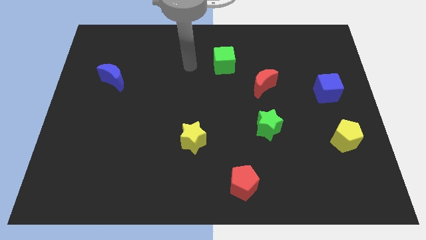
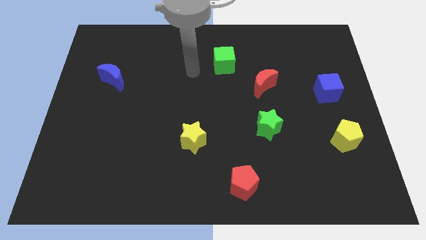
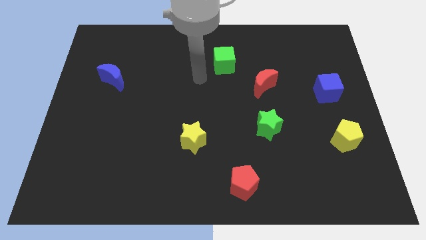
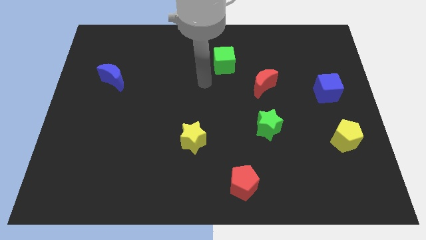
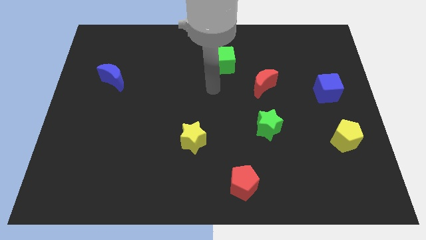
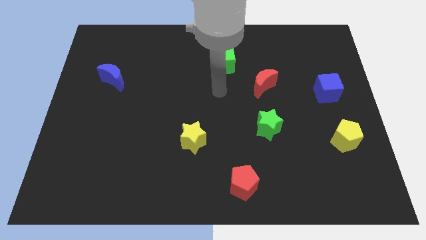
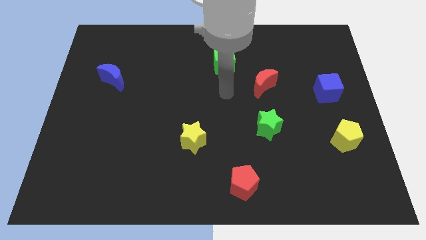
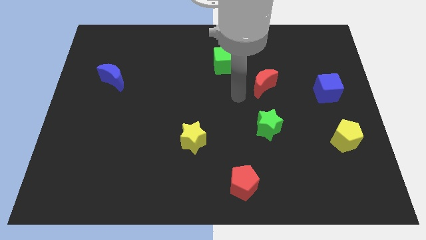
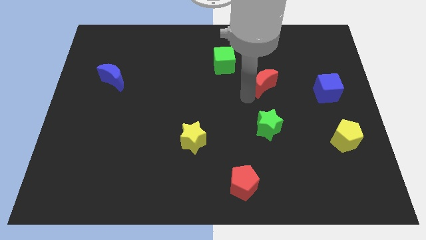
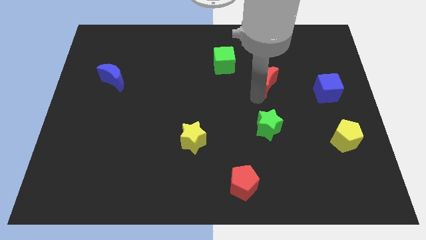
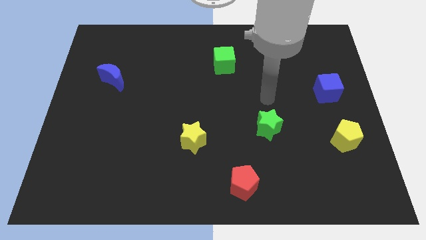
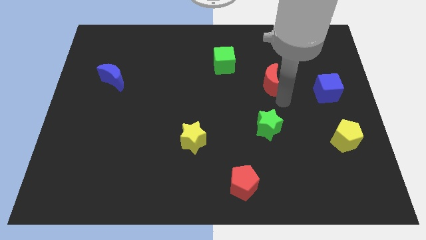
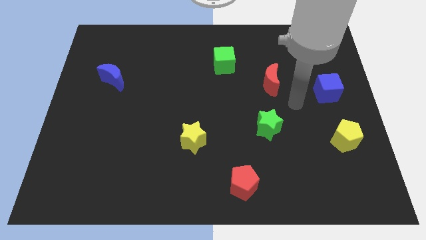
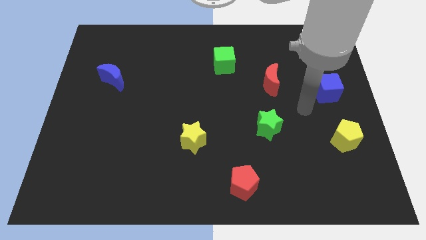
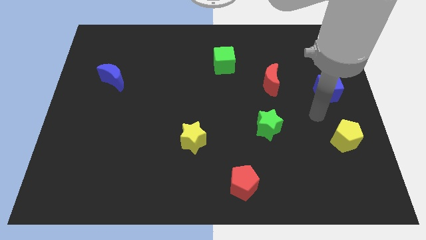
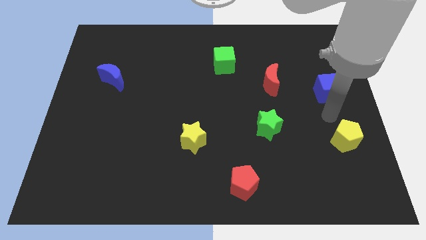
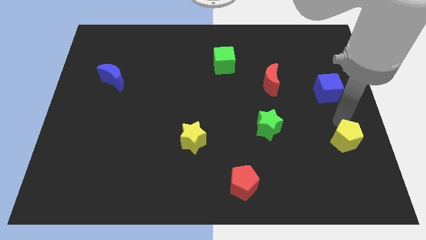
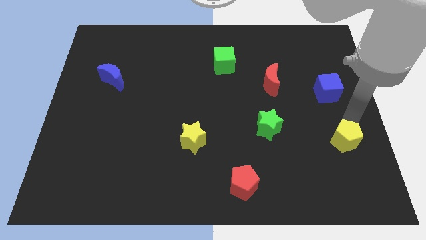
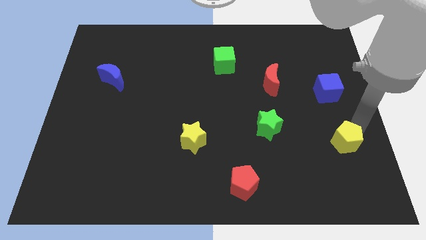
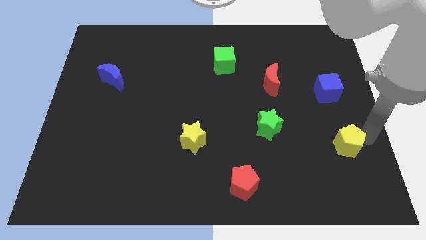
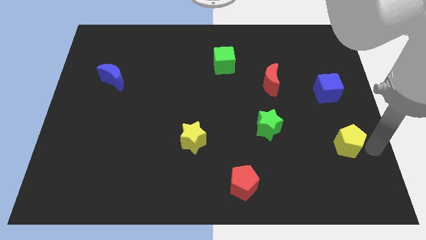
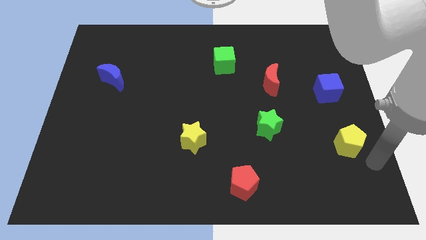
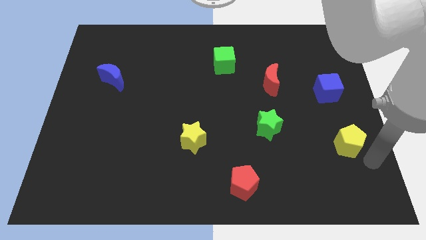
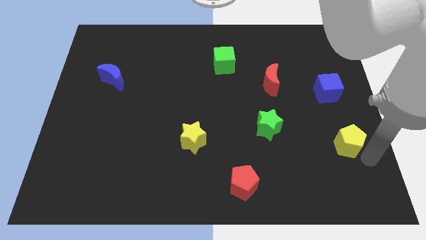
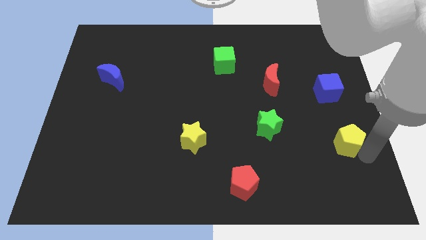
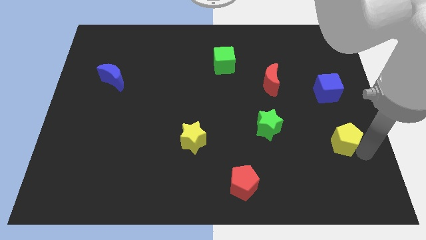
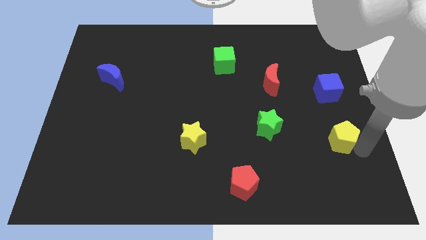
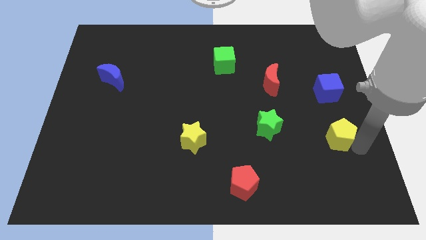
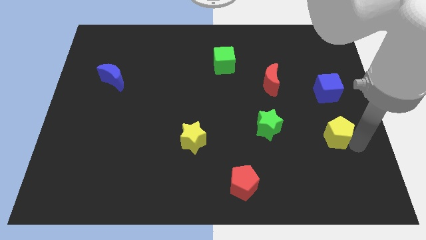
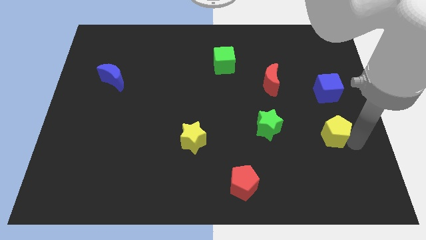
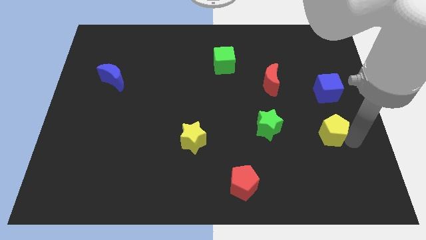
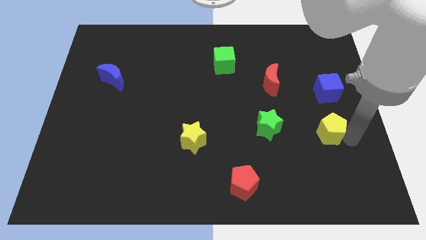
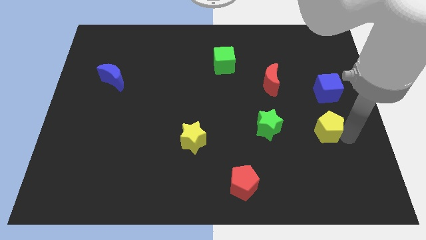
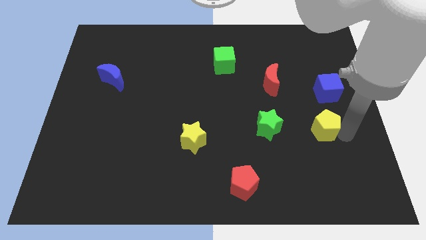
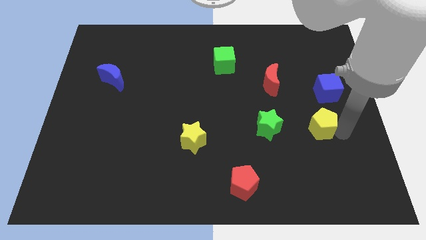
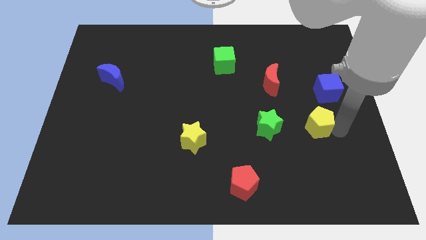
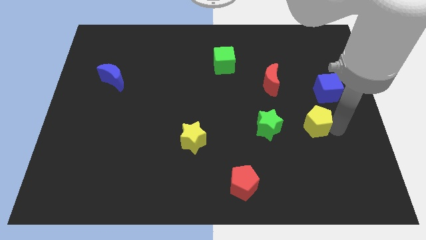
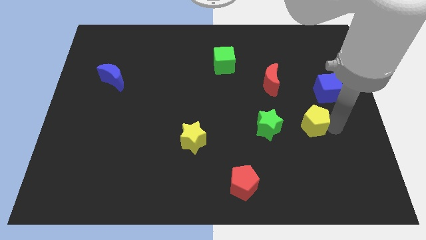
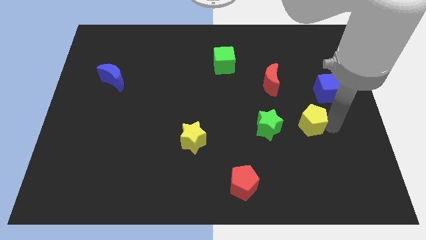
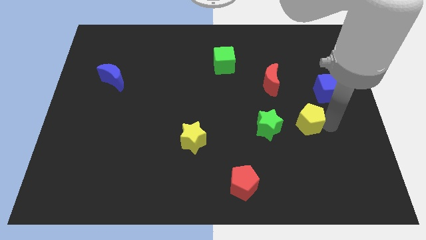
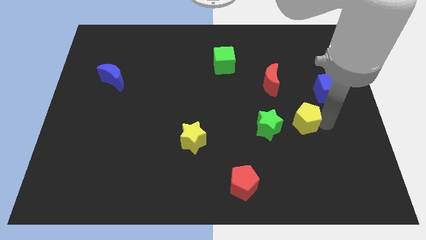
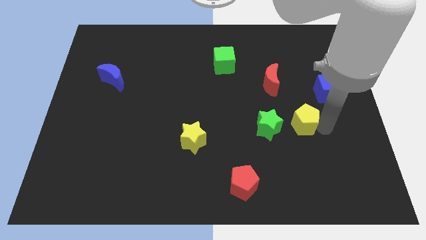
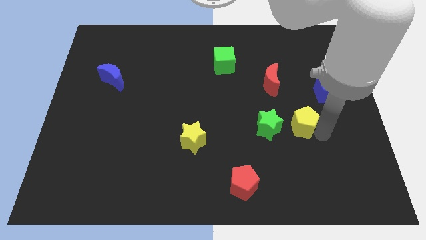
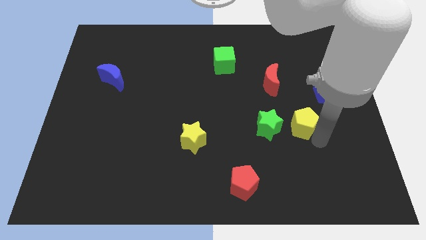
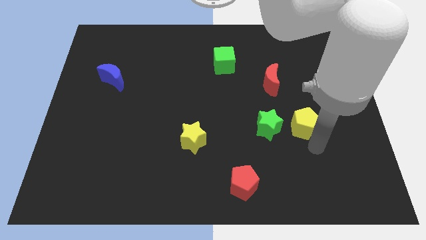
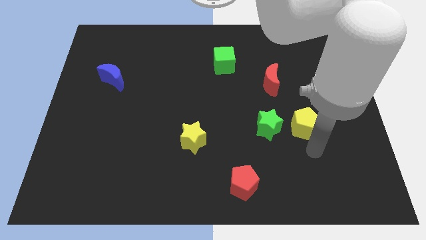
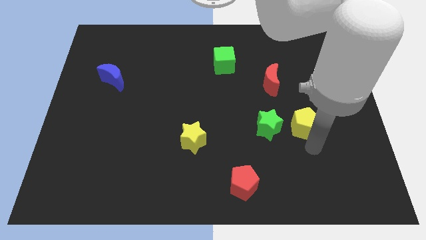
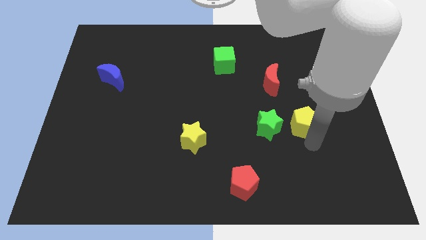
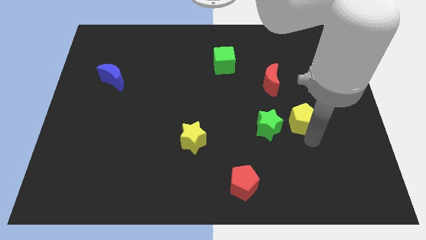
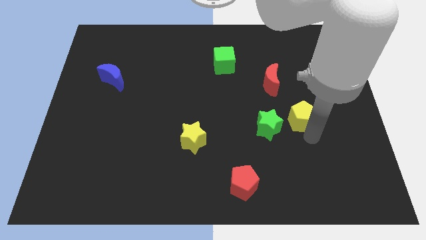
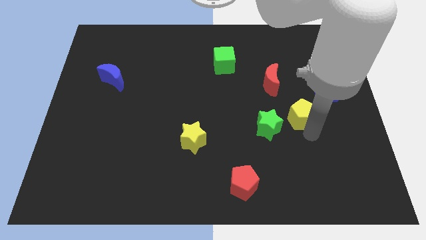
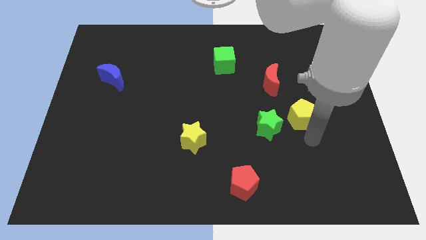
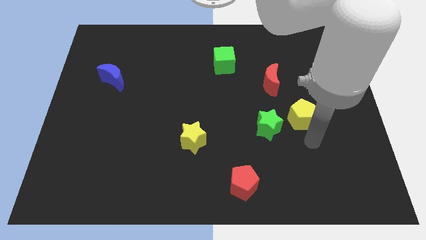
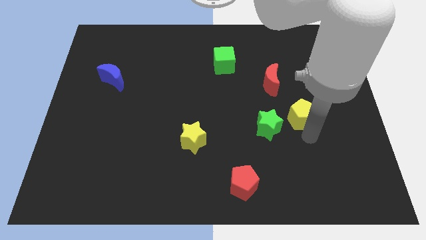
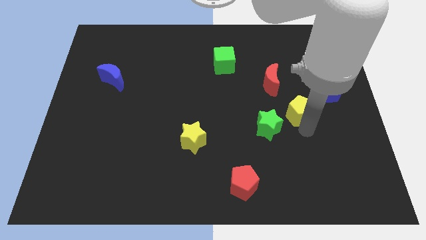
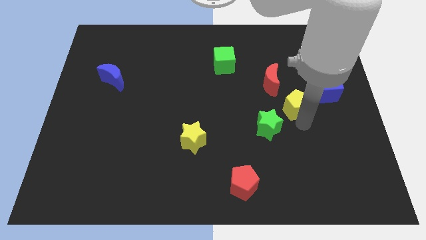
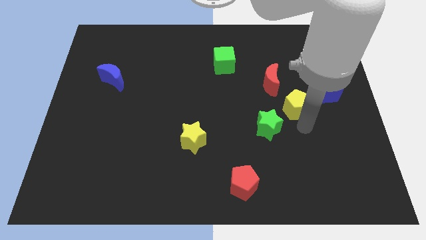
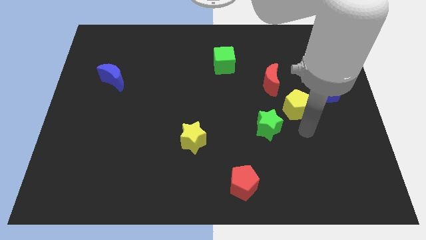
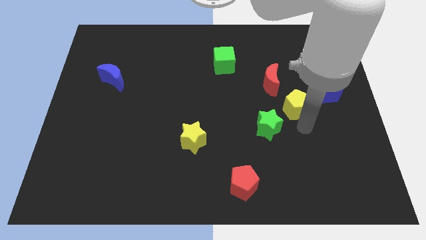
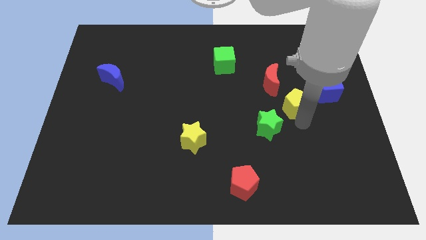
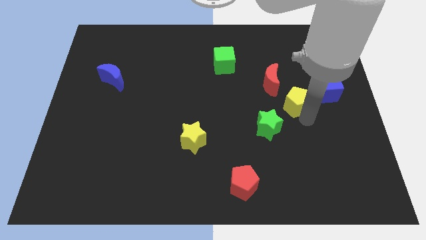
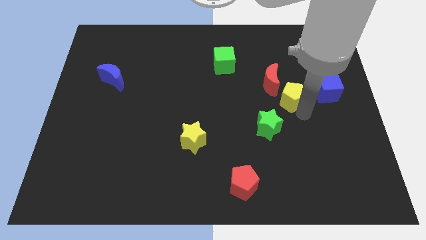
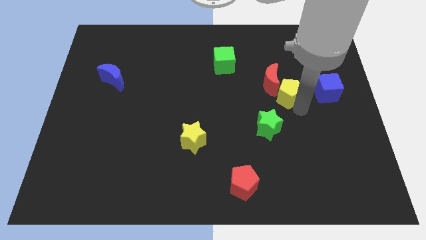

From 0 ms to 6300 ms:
put the yellow pentagon close to the red moon

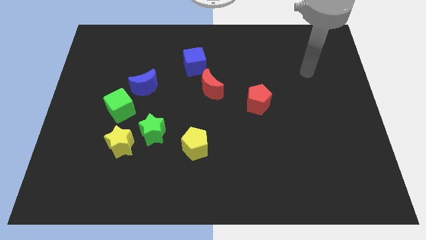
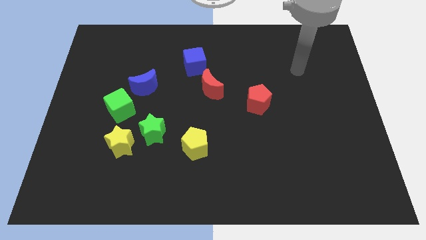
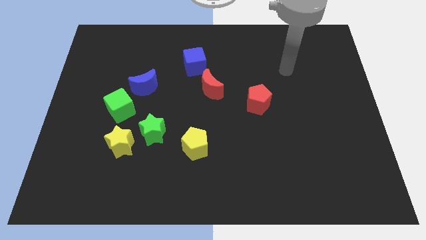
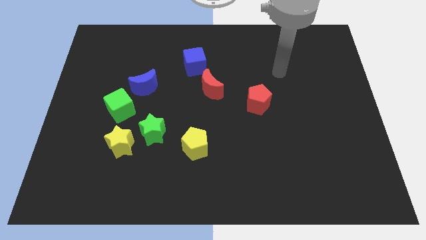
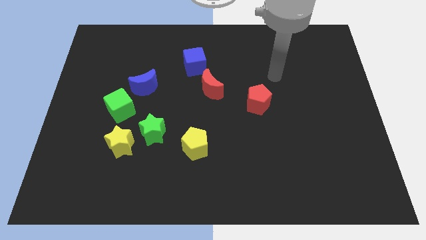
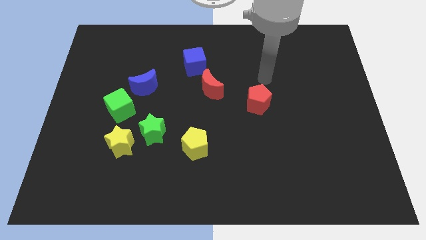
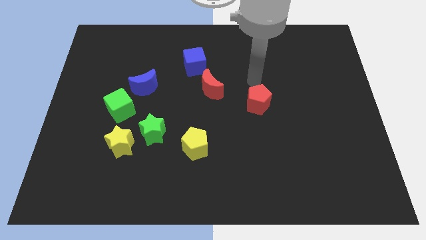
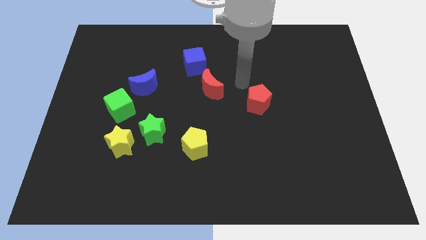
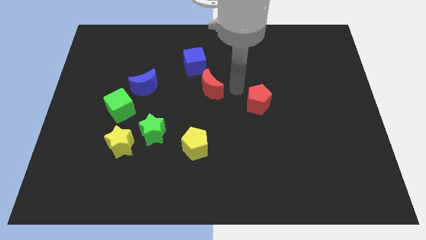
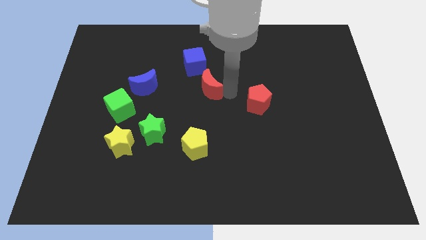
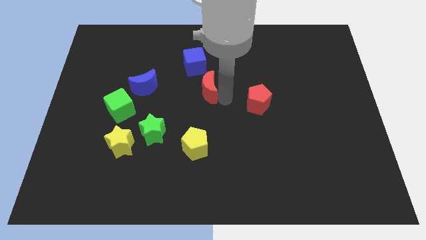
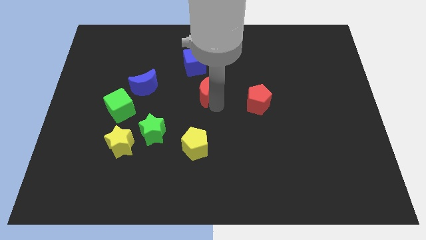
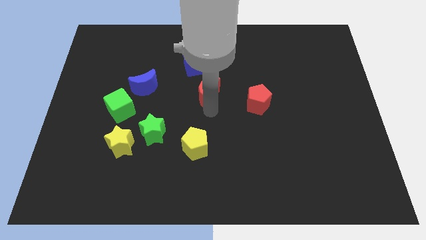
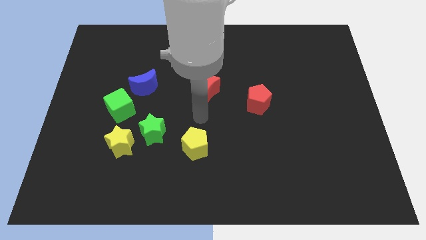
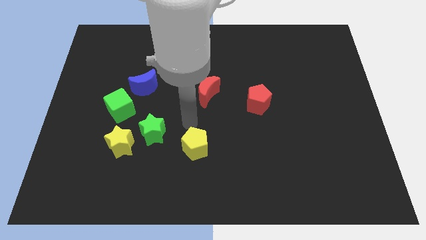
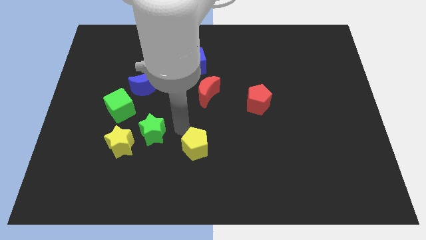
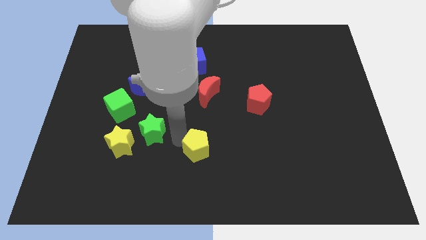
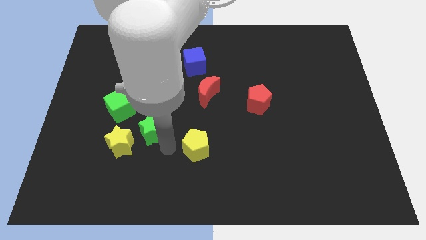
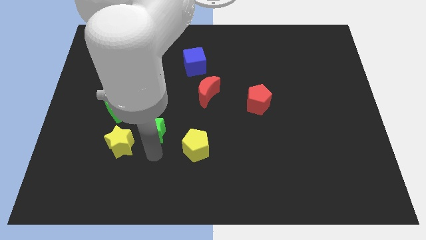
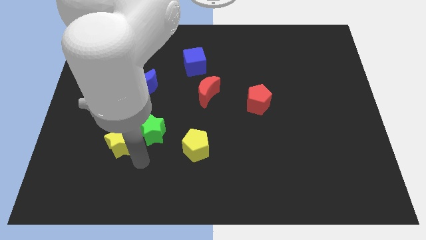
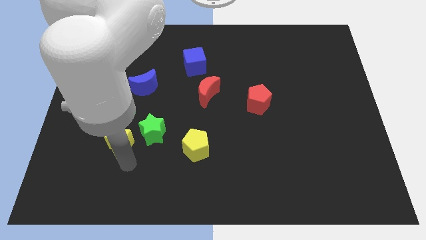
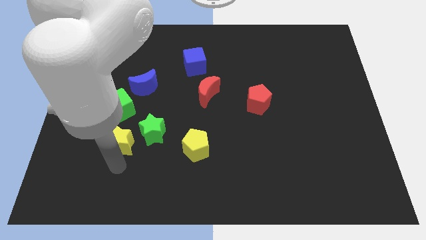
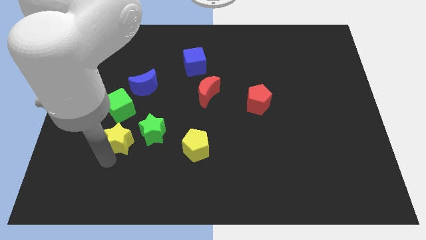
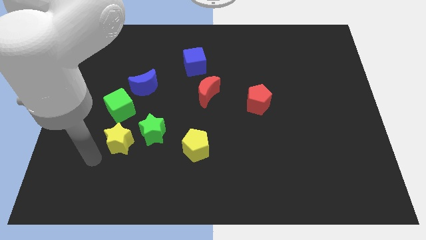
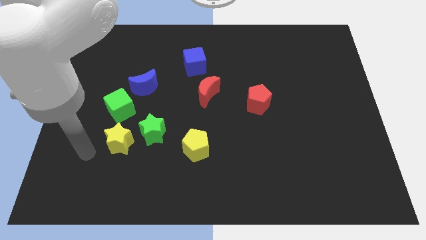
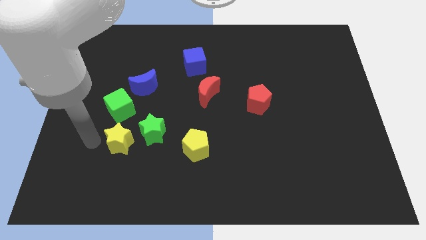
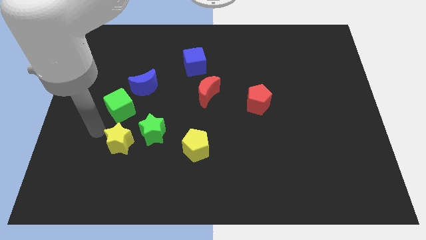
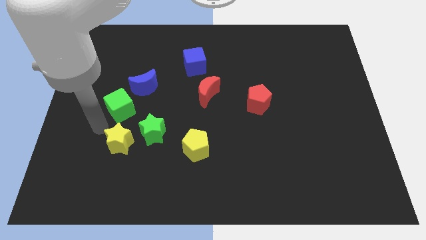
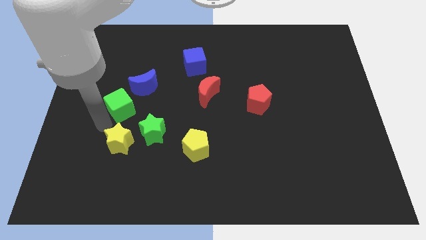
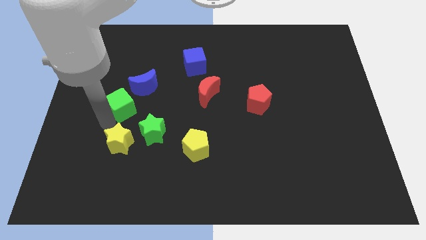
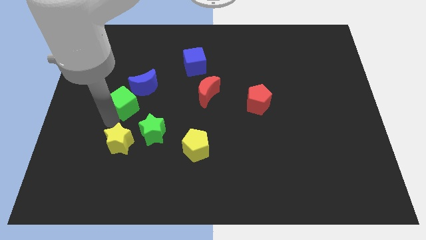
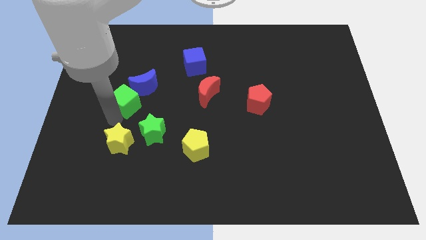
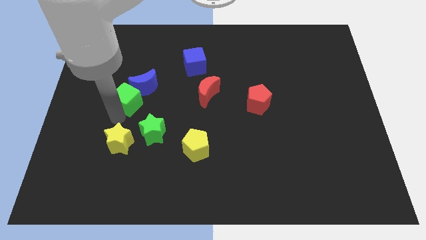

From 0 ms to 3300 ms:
move the green cube next to the blue moon
